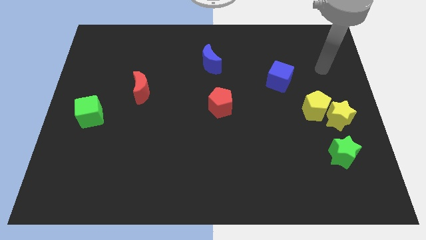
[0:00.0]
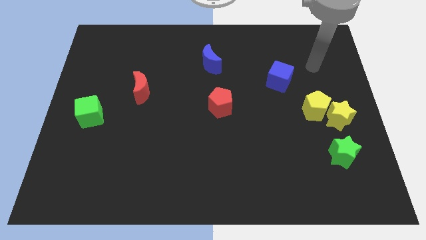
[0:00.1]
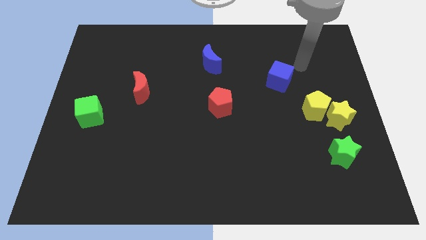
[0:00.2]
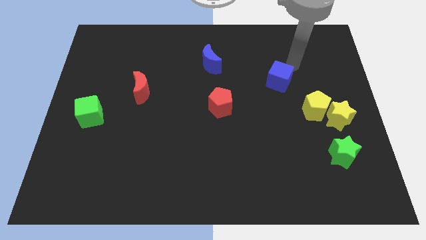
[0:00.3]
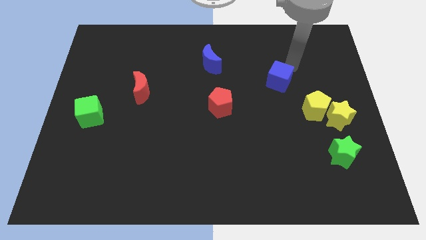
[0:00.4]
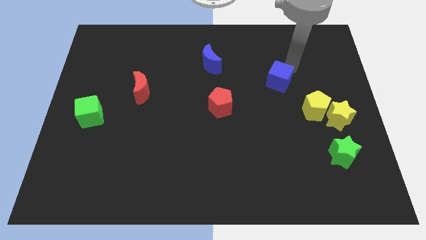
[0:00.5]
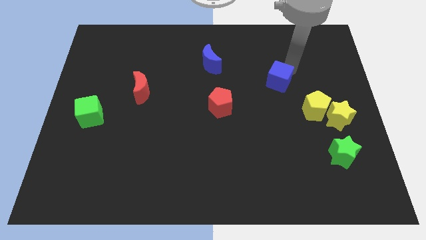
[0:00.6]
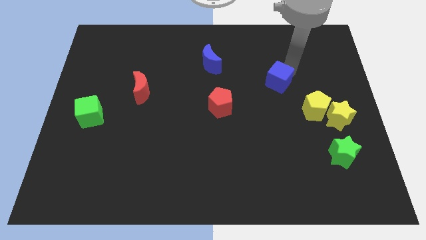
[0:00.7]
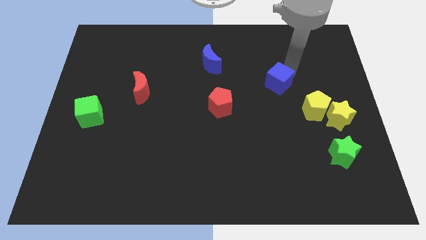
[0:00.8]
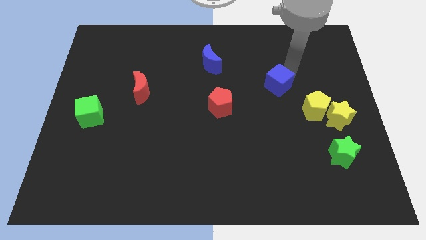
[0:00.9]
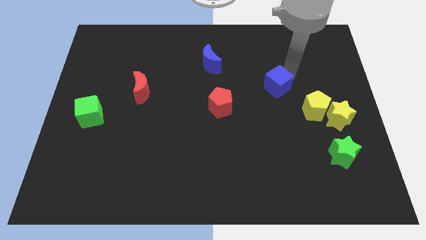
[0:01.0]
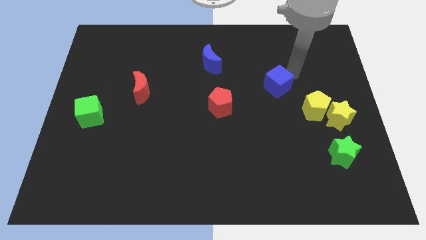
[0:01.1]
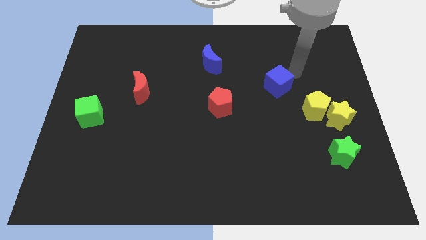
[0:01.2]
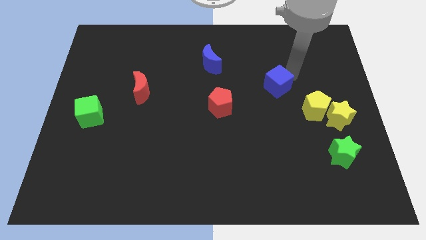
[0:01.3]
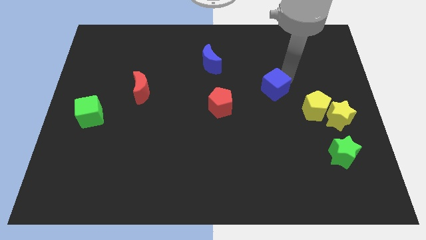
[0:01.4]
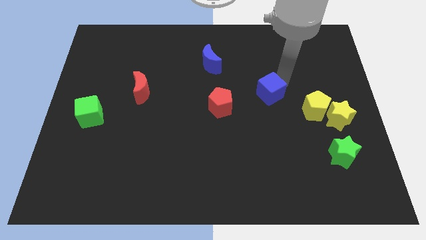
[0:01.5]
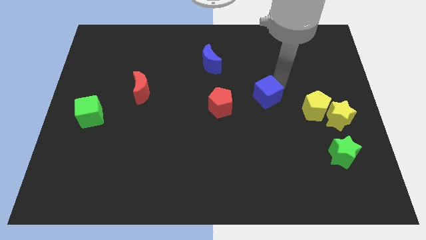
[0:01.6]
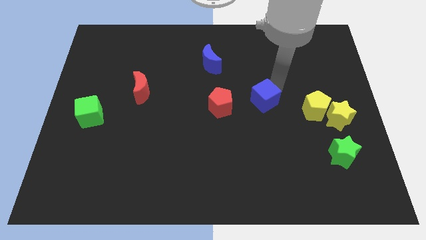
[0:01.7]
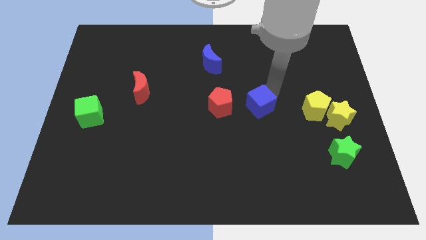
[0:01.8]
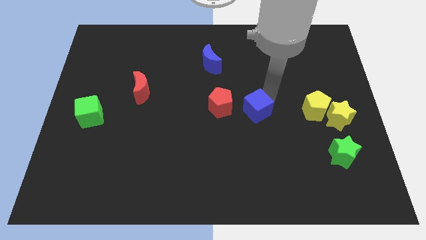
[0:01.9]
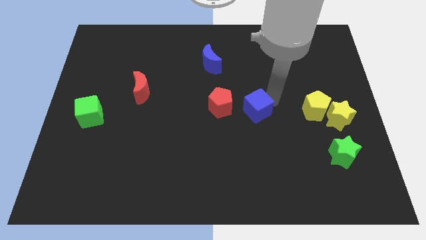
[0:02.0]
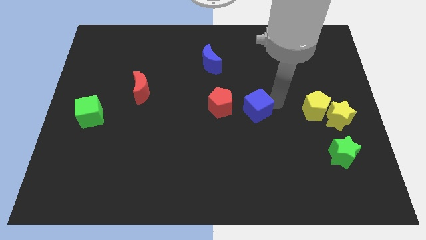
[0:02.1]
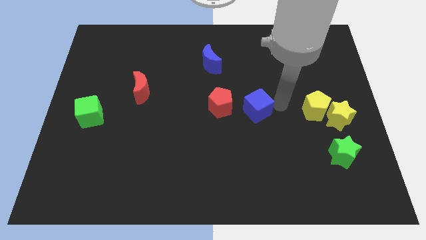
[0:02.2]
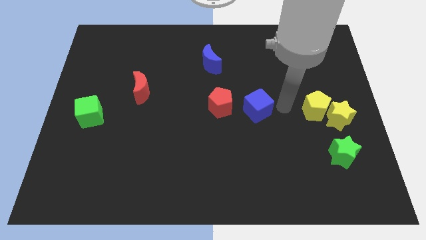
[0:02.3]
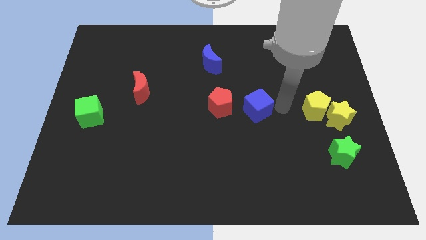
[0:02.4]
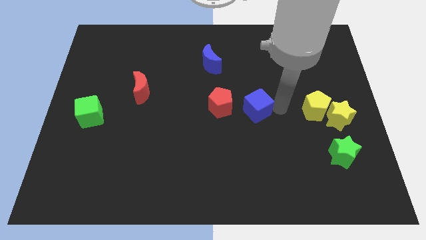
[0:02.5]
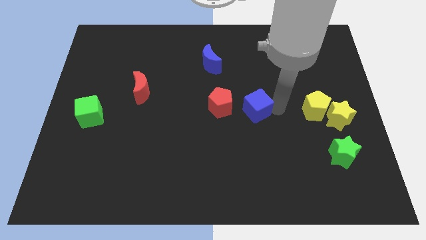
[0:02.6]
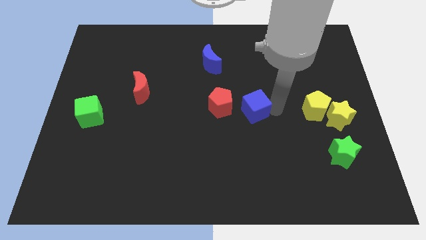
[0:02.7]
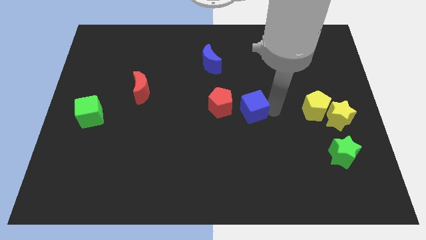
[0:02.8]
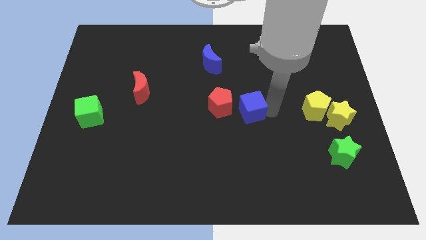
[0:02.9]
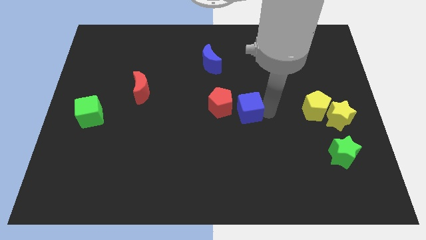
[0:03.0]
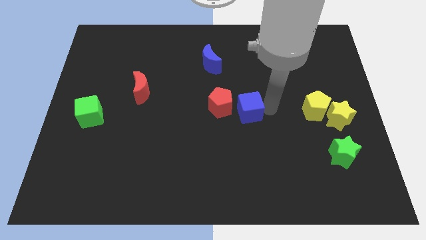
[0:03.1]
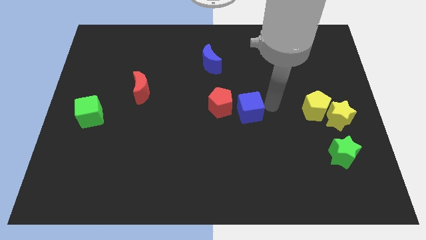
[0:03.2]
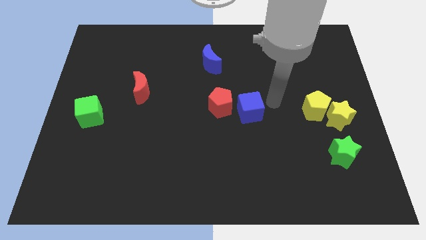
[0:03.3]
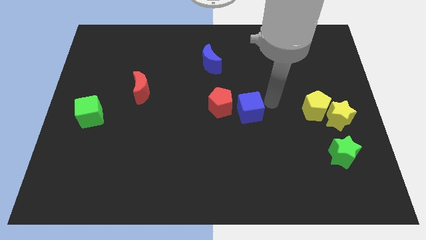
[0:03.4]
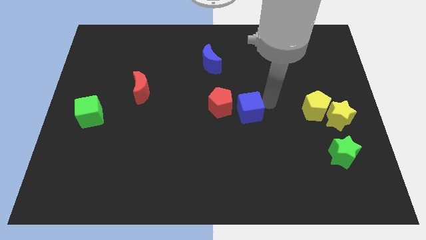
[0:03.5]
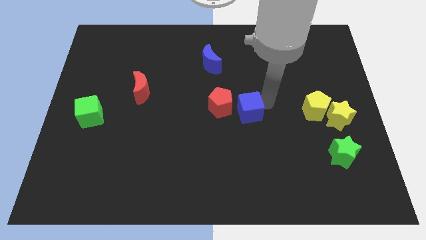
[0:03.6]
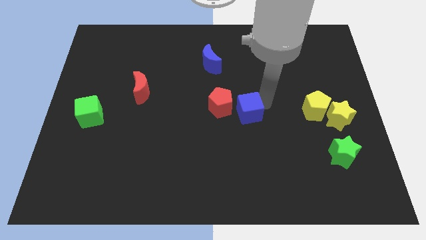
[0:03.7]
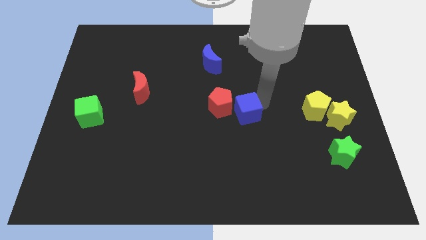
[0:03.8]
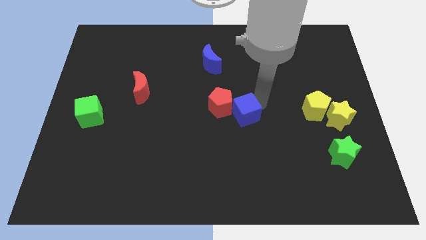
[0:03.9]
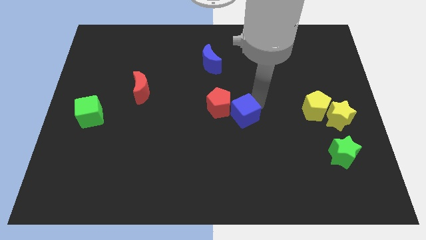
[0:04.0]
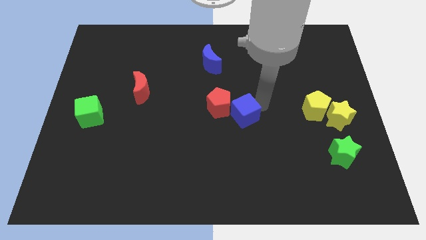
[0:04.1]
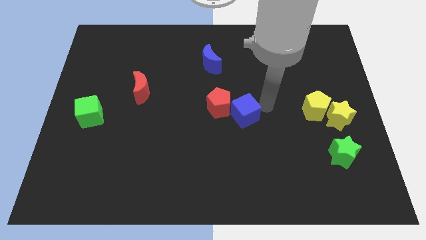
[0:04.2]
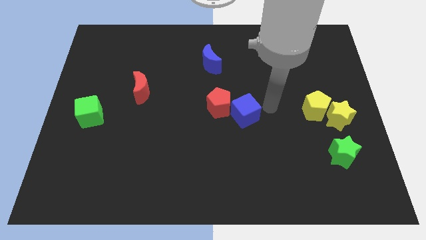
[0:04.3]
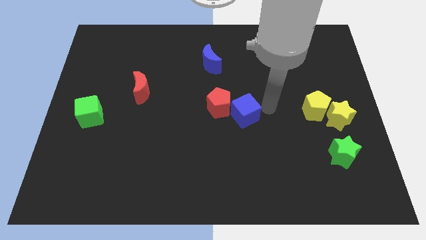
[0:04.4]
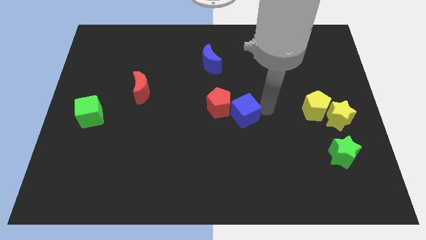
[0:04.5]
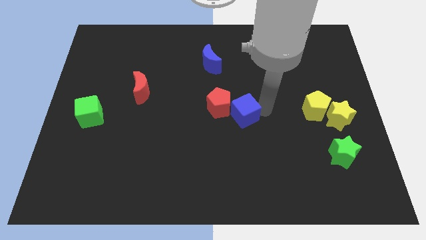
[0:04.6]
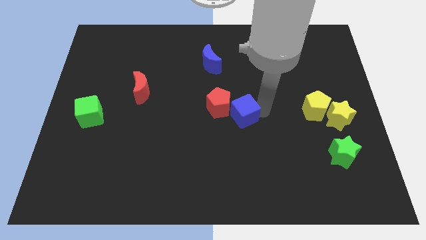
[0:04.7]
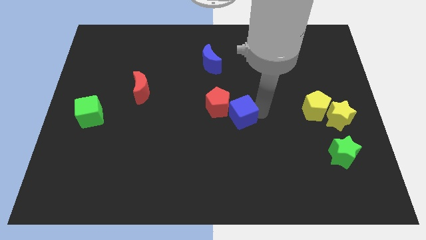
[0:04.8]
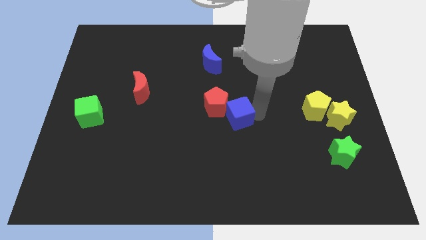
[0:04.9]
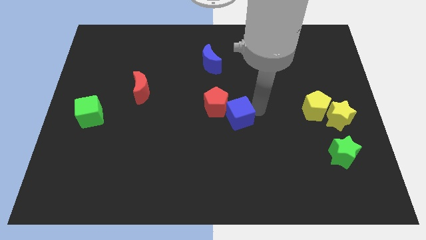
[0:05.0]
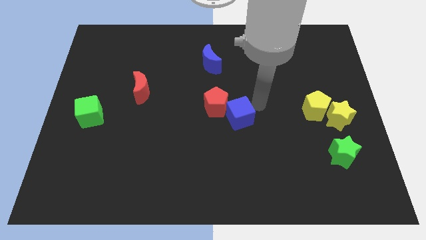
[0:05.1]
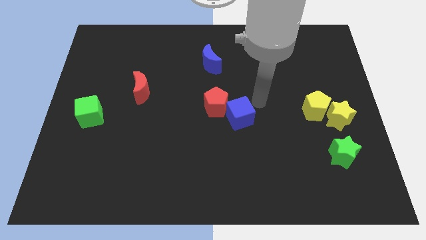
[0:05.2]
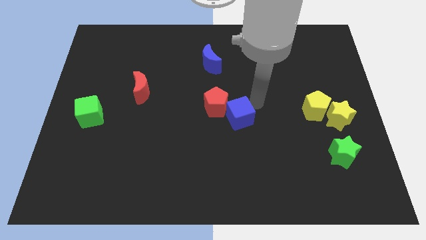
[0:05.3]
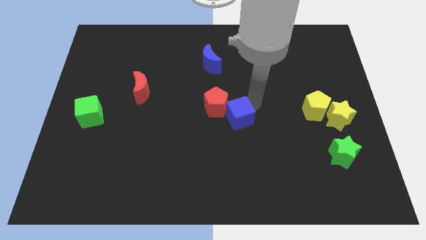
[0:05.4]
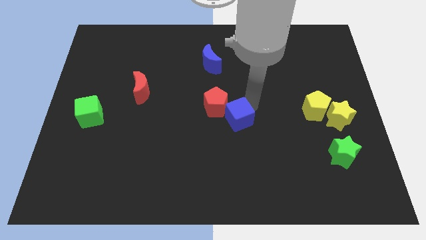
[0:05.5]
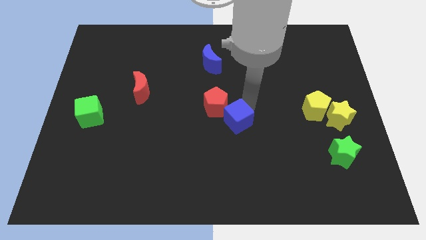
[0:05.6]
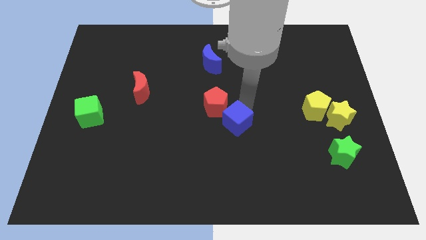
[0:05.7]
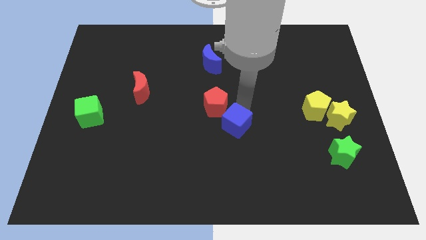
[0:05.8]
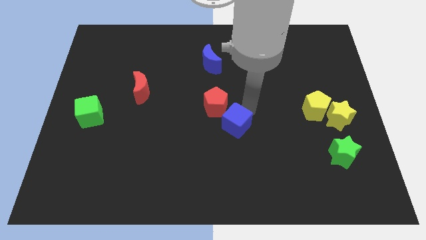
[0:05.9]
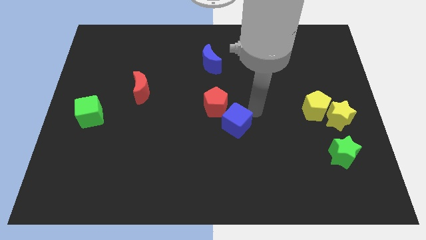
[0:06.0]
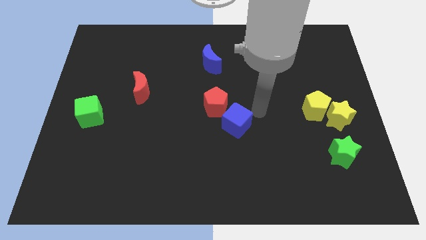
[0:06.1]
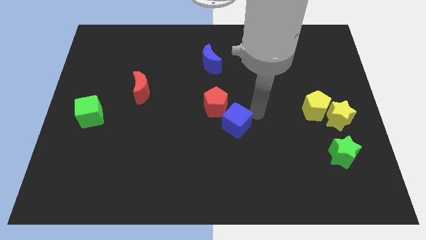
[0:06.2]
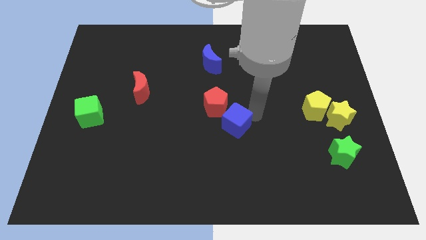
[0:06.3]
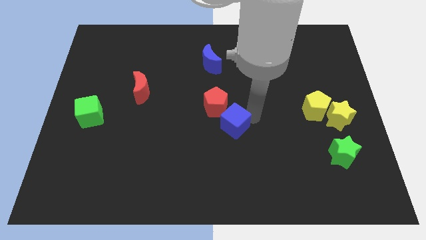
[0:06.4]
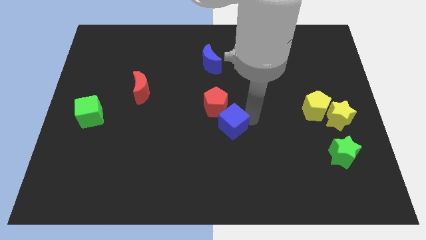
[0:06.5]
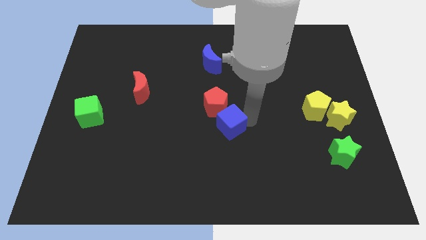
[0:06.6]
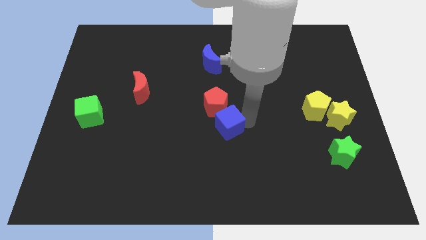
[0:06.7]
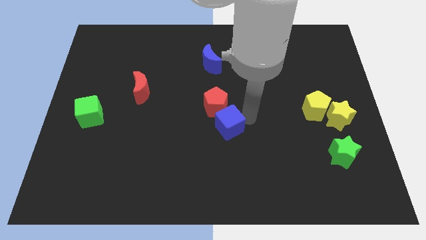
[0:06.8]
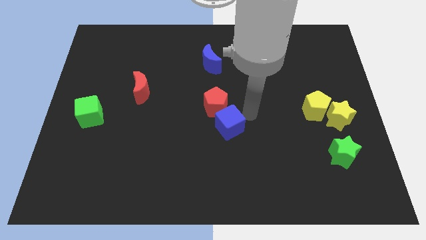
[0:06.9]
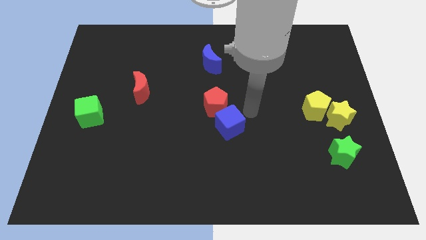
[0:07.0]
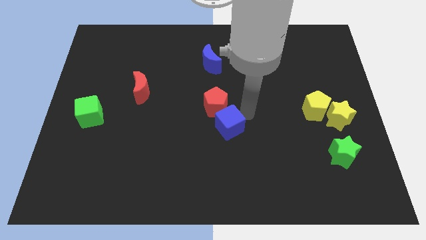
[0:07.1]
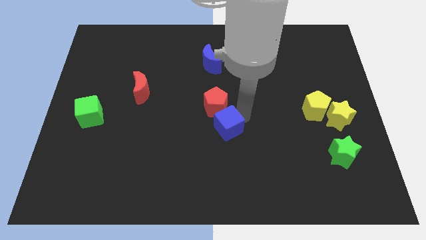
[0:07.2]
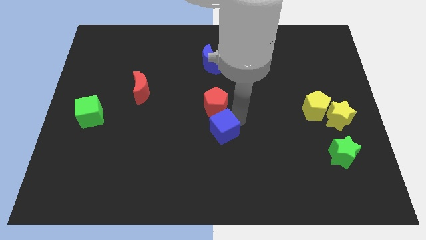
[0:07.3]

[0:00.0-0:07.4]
push the blue cube diagonally down and to the left

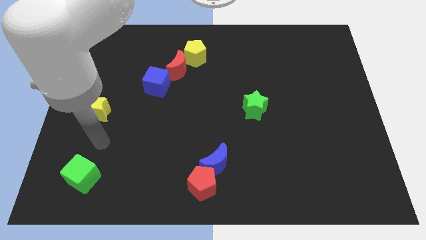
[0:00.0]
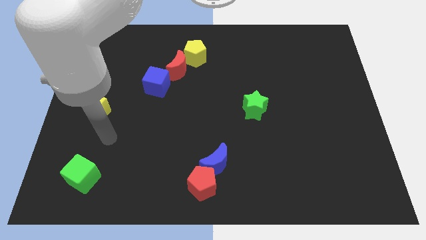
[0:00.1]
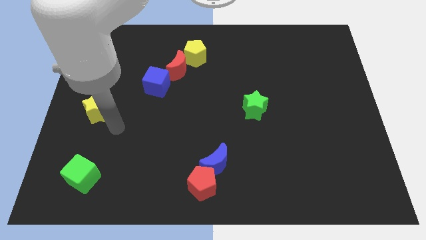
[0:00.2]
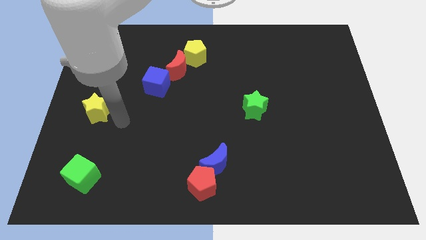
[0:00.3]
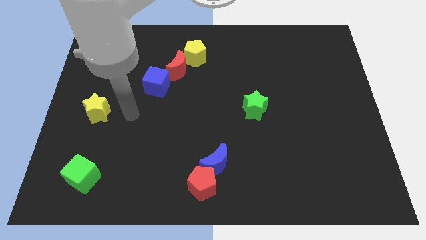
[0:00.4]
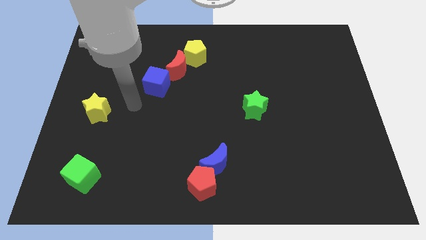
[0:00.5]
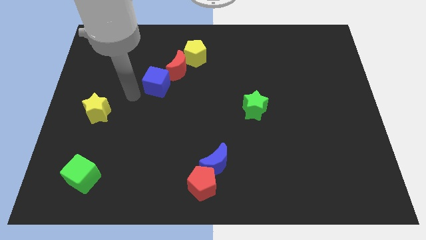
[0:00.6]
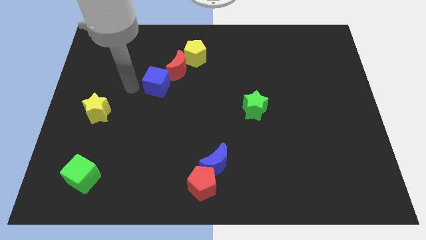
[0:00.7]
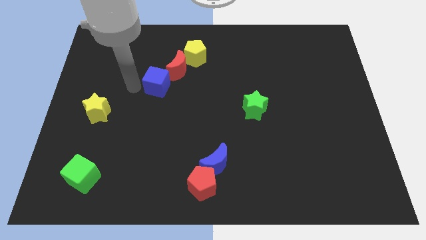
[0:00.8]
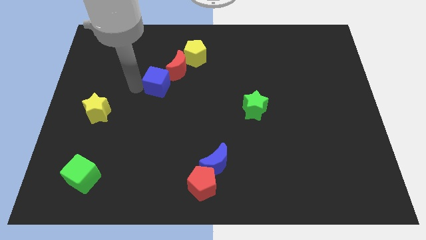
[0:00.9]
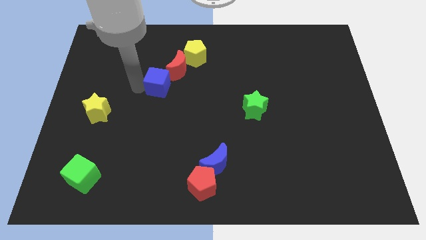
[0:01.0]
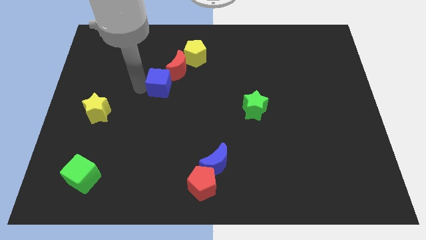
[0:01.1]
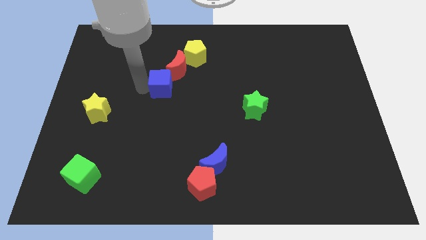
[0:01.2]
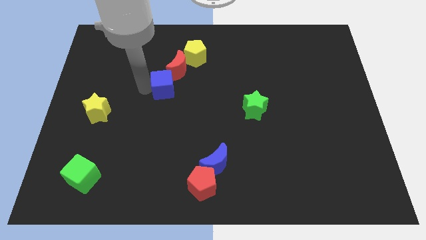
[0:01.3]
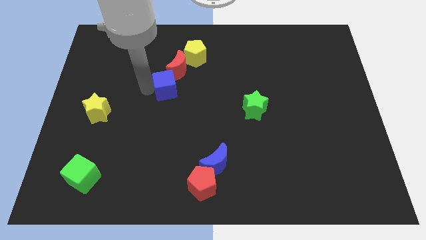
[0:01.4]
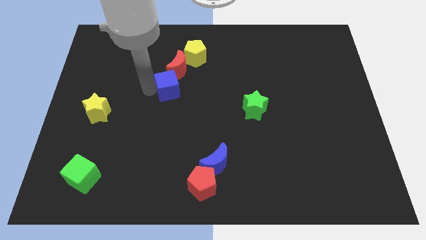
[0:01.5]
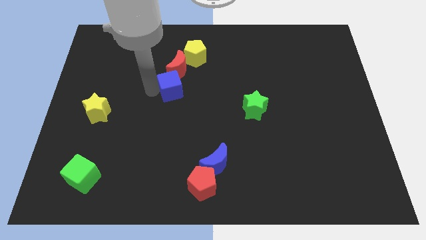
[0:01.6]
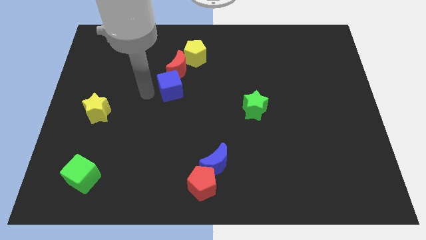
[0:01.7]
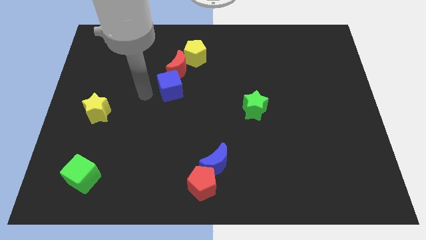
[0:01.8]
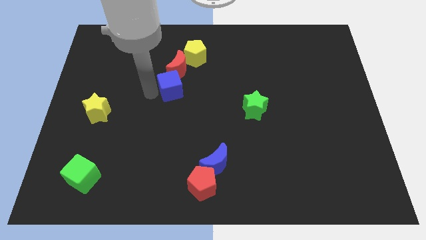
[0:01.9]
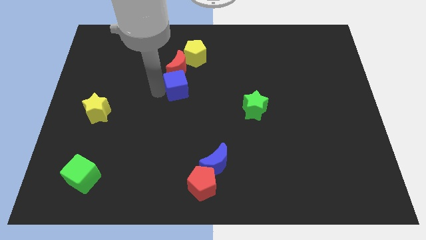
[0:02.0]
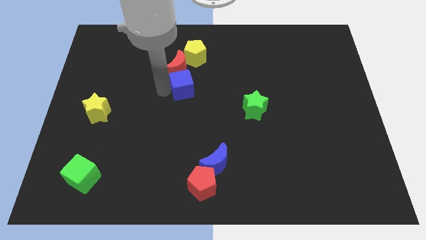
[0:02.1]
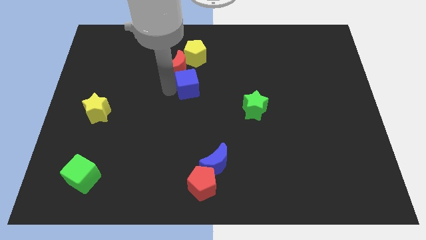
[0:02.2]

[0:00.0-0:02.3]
move the blue cube a little to the right
